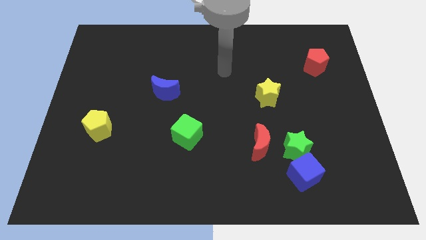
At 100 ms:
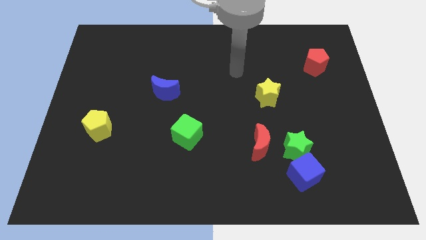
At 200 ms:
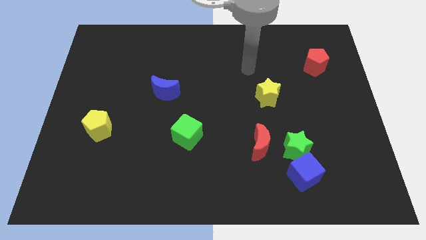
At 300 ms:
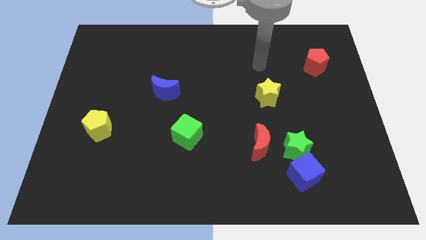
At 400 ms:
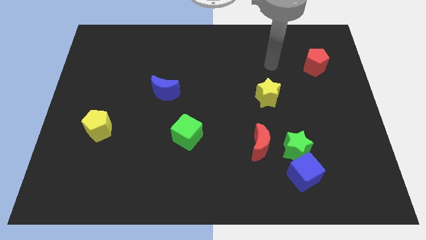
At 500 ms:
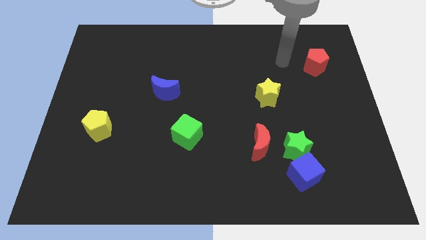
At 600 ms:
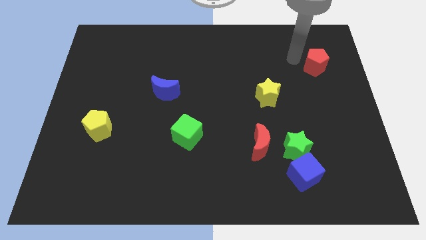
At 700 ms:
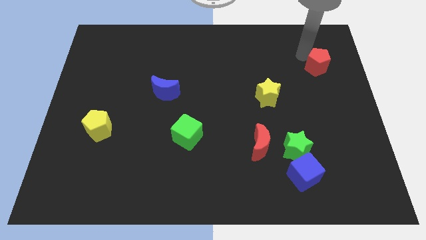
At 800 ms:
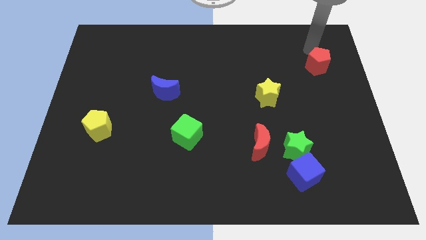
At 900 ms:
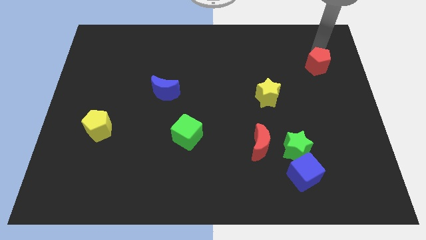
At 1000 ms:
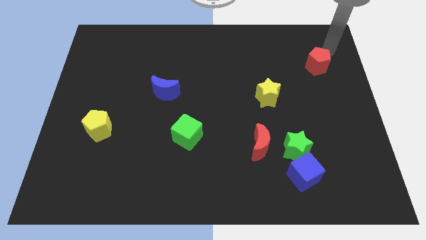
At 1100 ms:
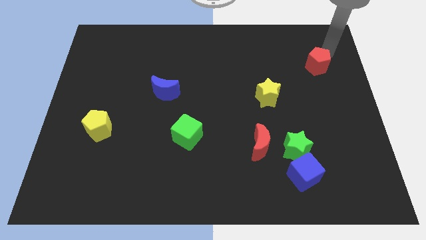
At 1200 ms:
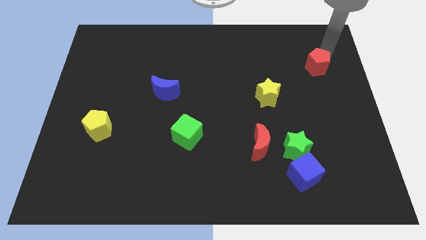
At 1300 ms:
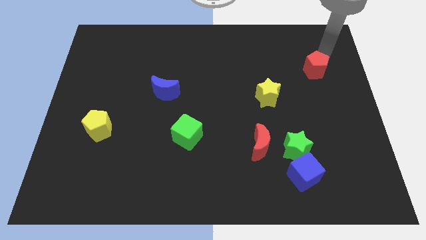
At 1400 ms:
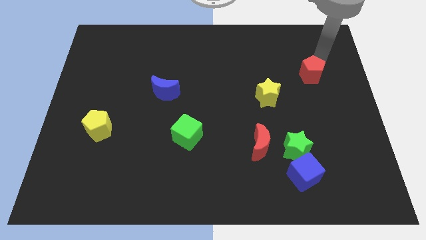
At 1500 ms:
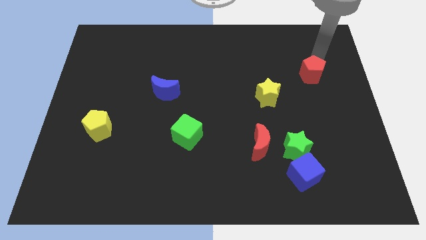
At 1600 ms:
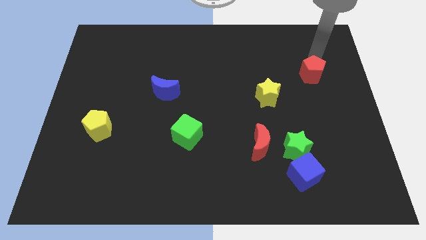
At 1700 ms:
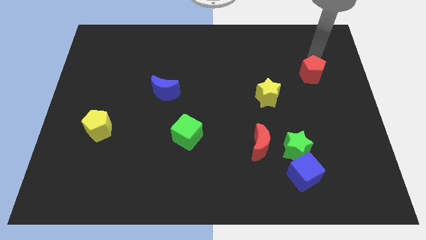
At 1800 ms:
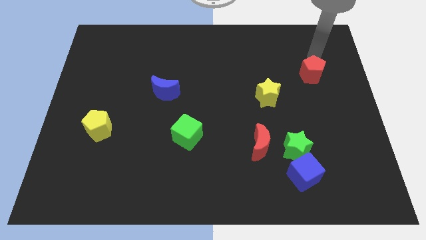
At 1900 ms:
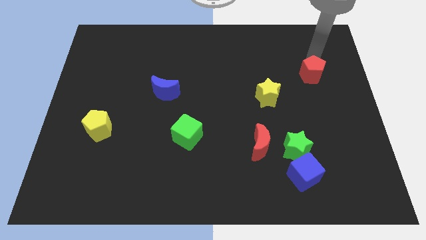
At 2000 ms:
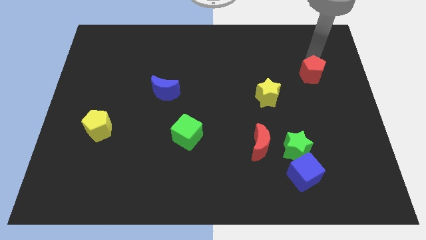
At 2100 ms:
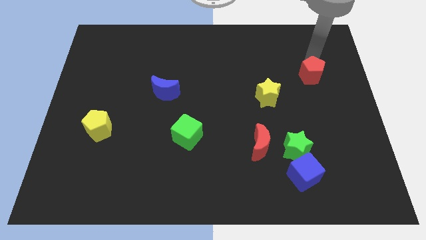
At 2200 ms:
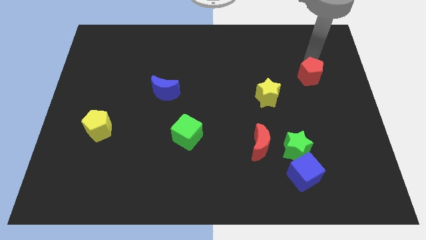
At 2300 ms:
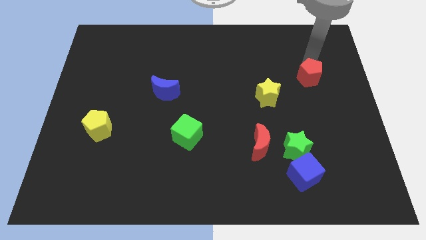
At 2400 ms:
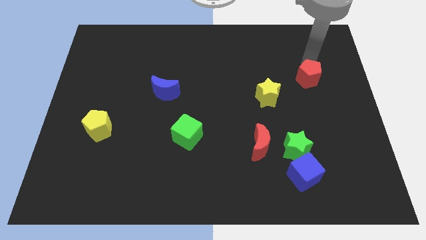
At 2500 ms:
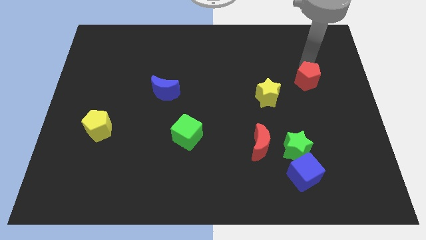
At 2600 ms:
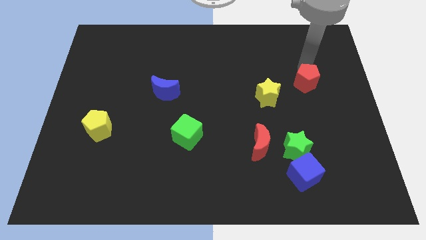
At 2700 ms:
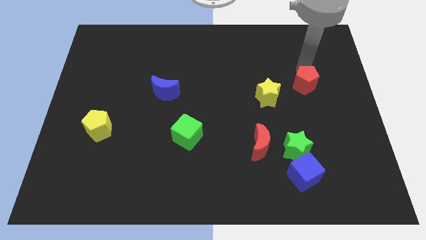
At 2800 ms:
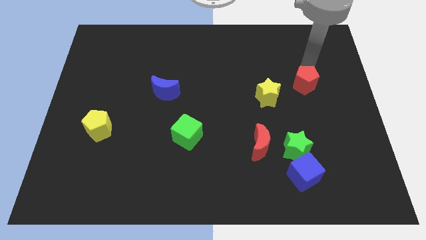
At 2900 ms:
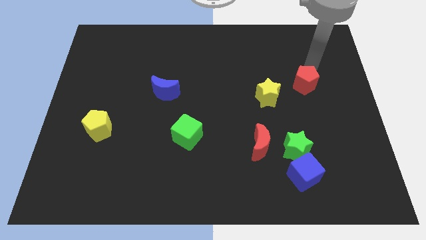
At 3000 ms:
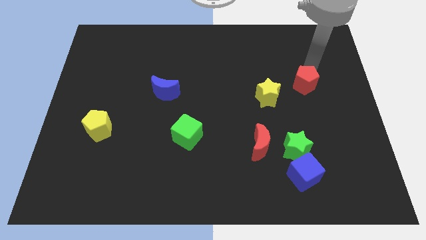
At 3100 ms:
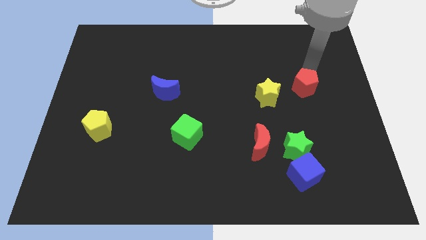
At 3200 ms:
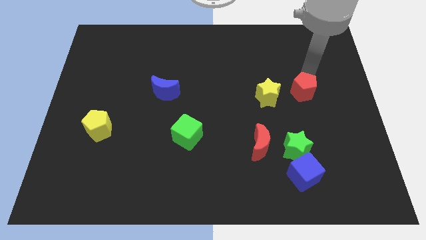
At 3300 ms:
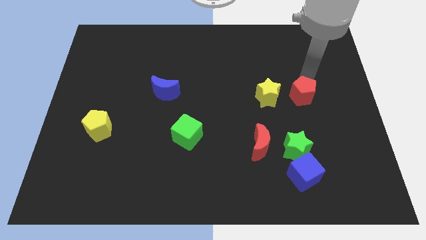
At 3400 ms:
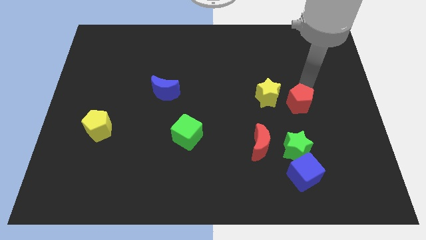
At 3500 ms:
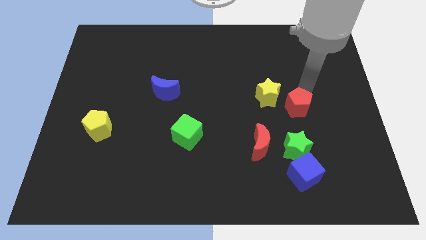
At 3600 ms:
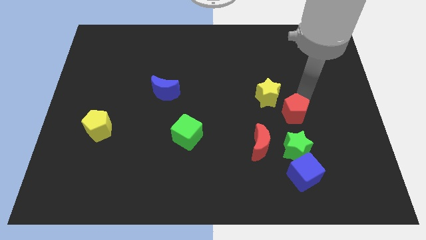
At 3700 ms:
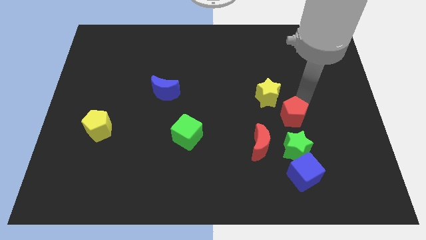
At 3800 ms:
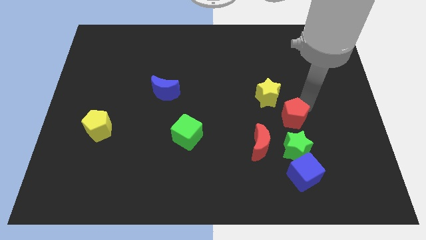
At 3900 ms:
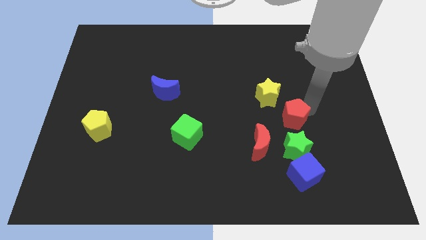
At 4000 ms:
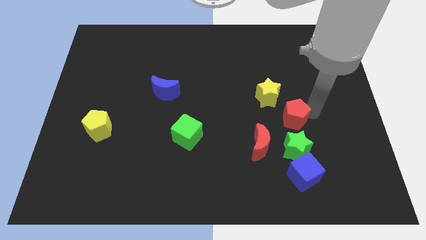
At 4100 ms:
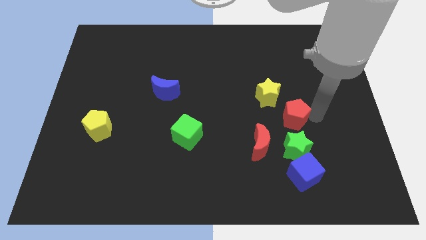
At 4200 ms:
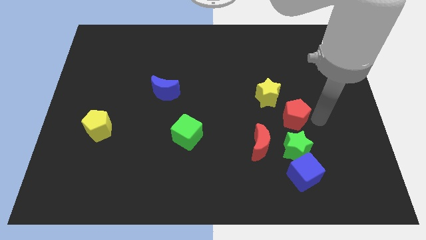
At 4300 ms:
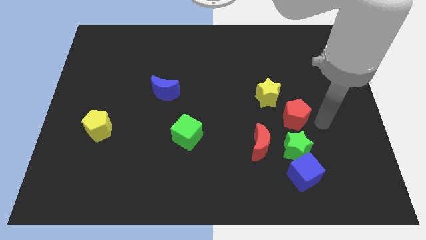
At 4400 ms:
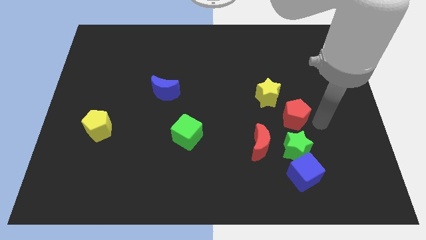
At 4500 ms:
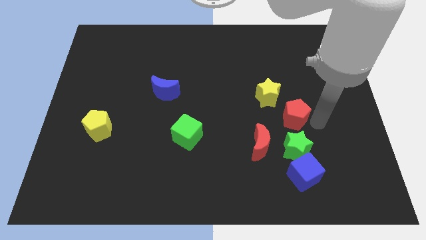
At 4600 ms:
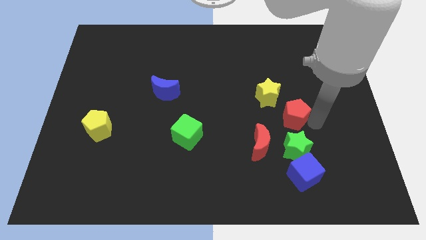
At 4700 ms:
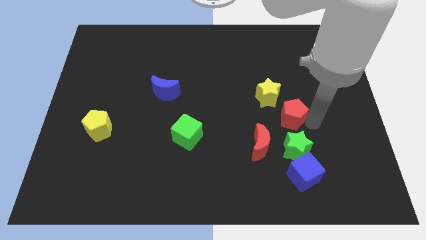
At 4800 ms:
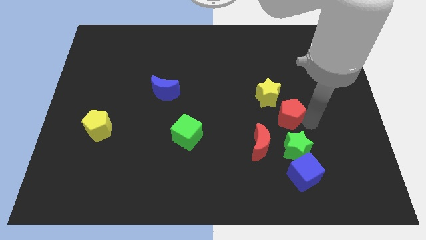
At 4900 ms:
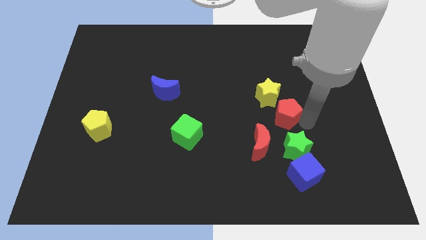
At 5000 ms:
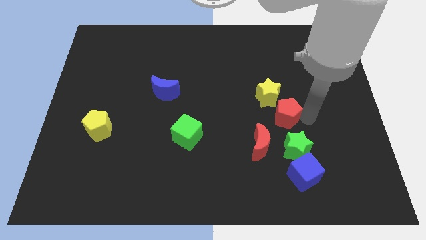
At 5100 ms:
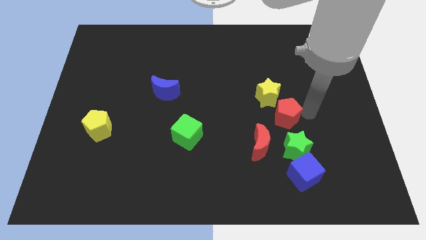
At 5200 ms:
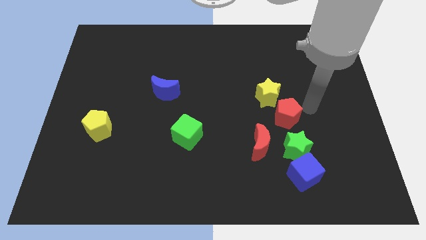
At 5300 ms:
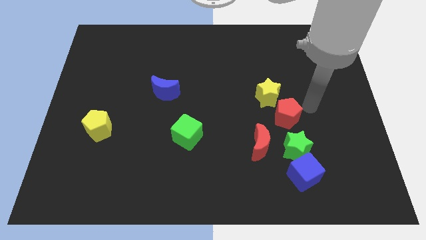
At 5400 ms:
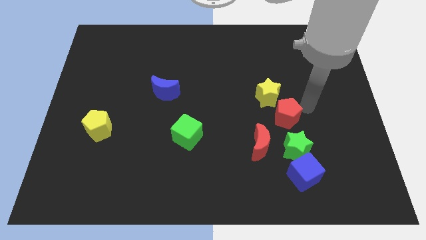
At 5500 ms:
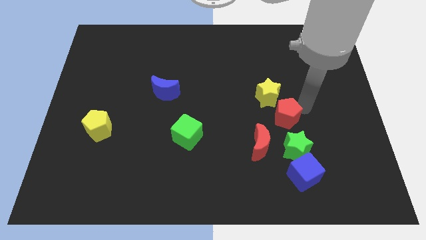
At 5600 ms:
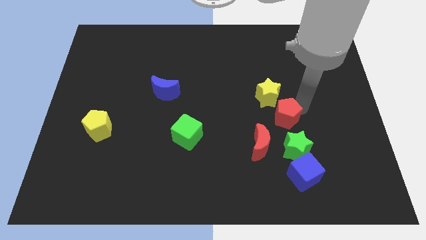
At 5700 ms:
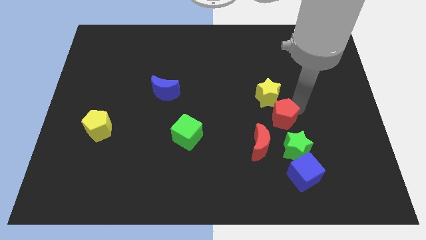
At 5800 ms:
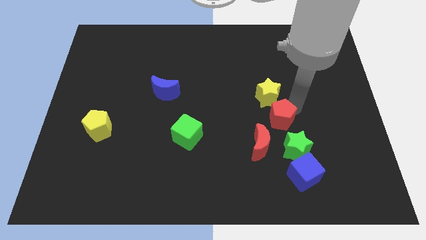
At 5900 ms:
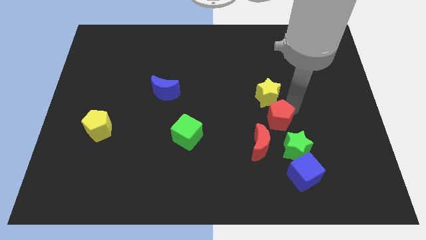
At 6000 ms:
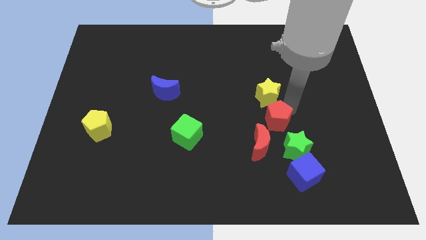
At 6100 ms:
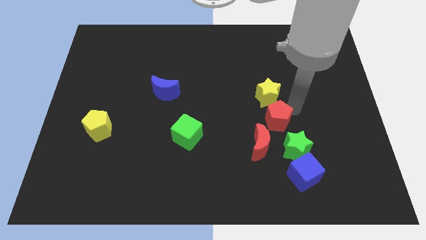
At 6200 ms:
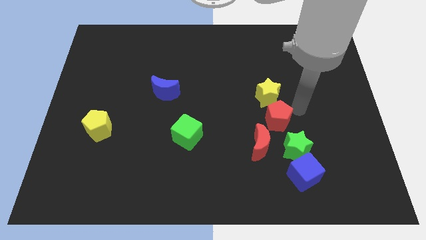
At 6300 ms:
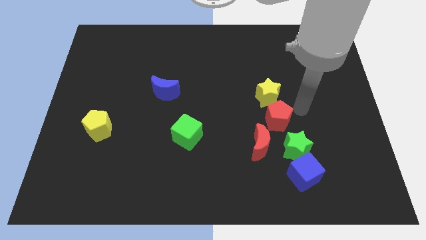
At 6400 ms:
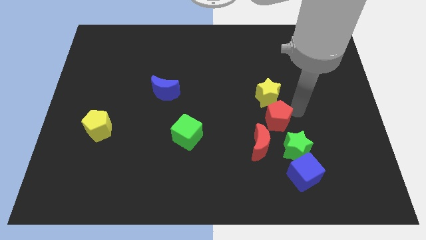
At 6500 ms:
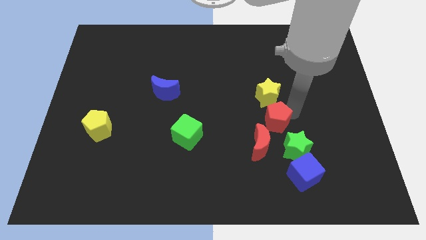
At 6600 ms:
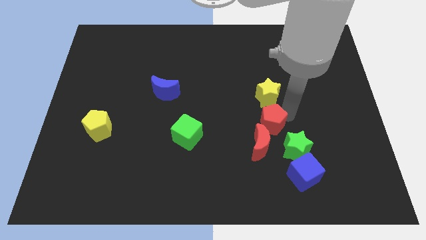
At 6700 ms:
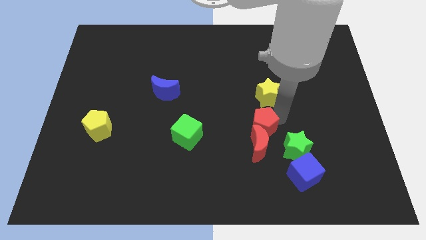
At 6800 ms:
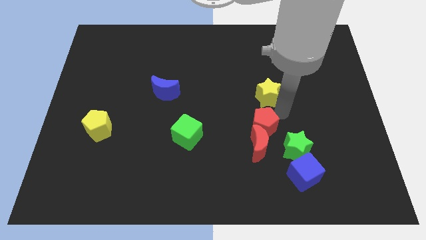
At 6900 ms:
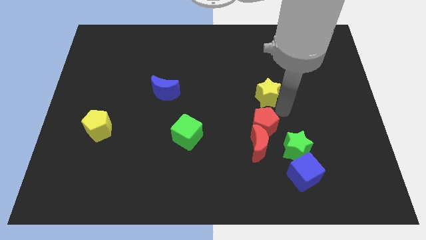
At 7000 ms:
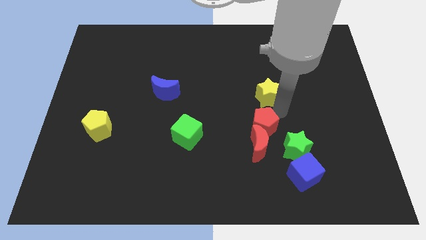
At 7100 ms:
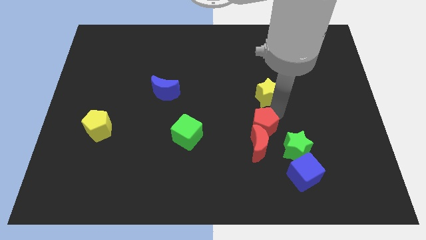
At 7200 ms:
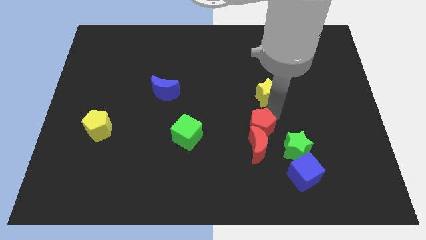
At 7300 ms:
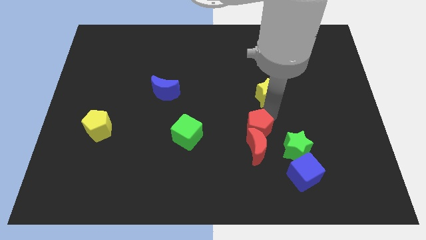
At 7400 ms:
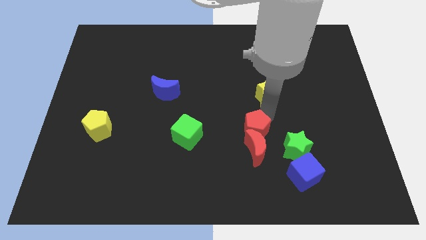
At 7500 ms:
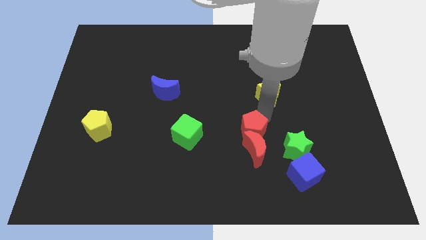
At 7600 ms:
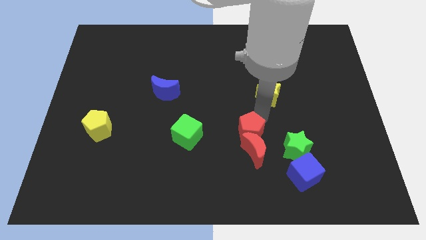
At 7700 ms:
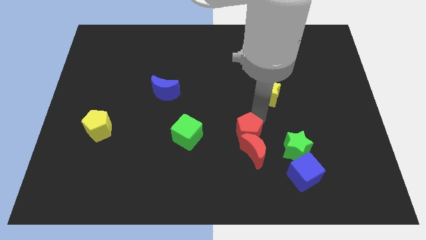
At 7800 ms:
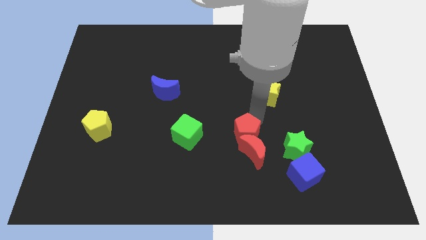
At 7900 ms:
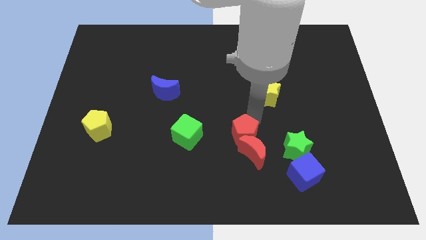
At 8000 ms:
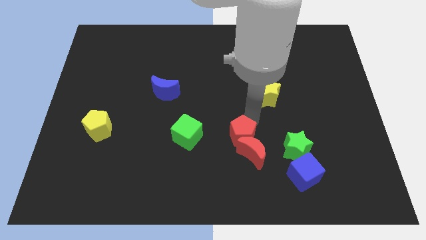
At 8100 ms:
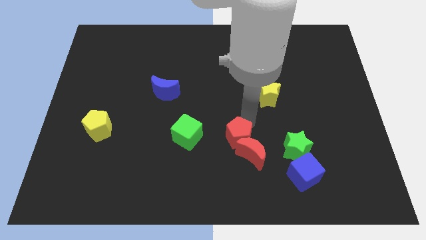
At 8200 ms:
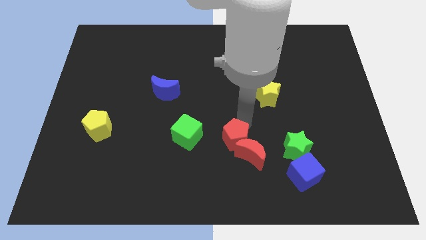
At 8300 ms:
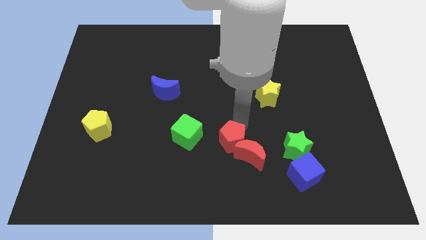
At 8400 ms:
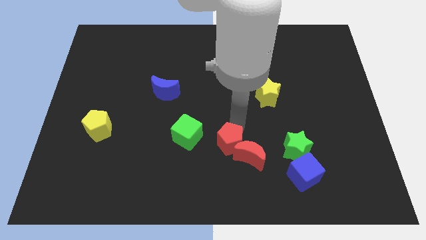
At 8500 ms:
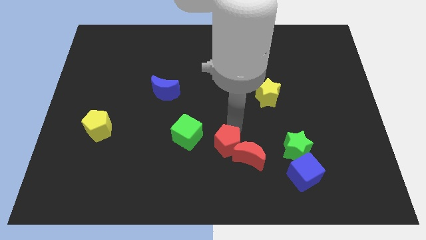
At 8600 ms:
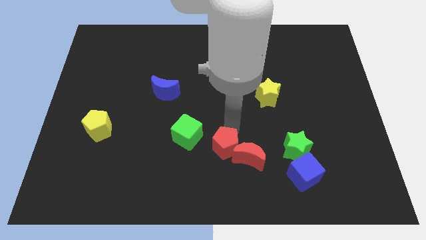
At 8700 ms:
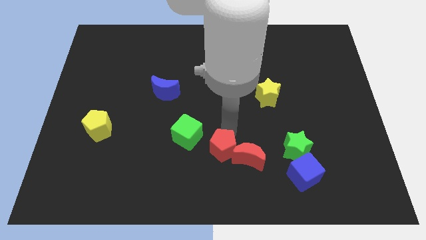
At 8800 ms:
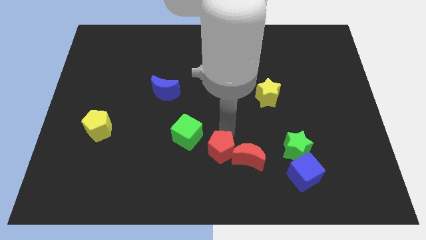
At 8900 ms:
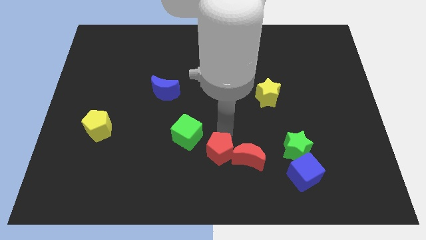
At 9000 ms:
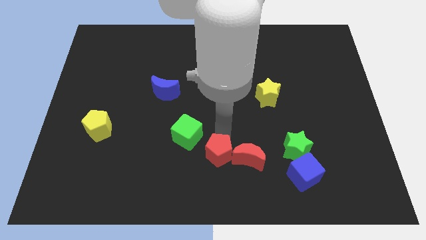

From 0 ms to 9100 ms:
slide the red pentagon to the bottom
